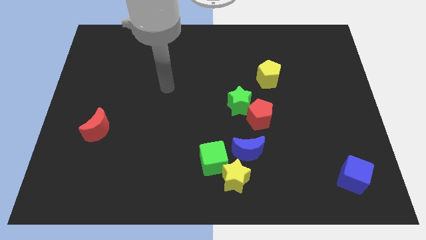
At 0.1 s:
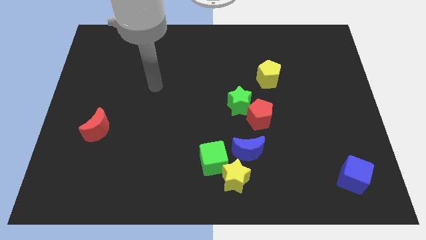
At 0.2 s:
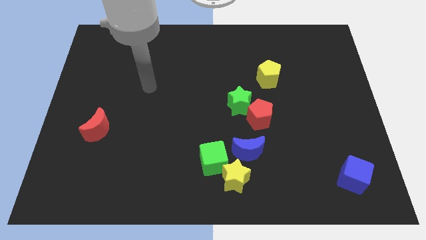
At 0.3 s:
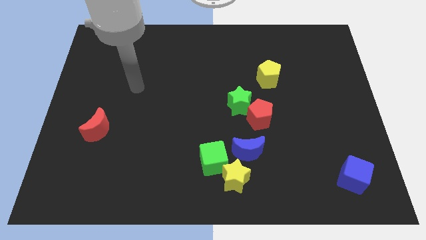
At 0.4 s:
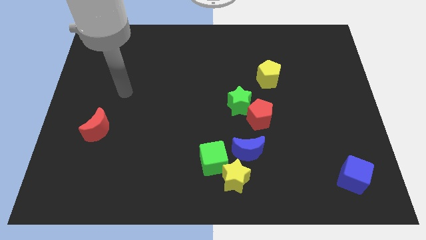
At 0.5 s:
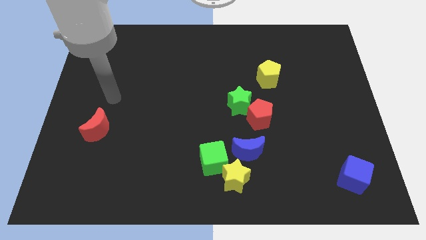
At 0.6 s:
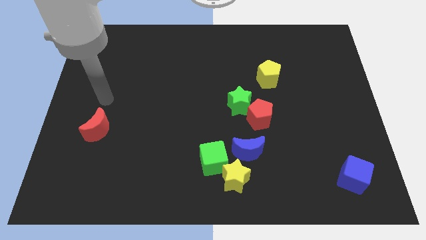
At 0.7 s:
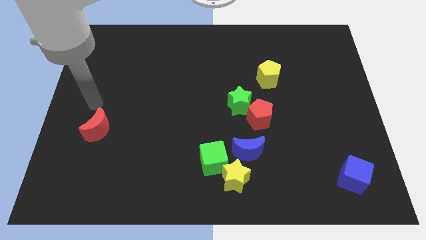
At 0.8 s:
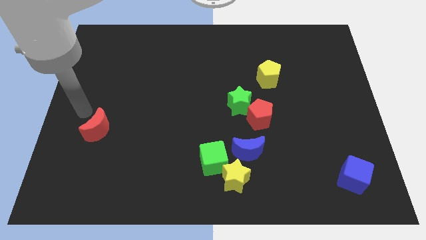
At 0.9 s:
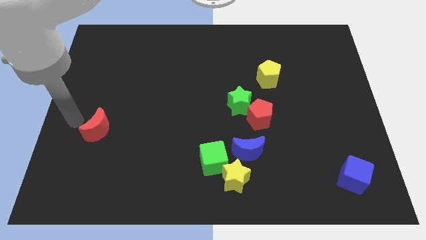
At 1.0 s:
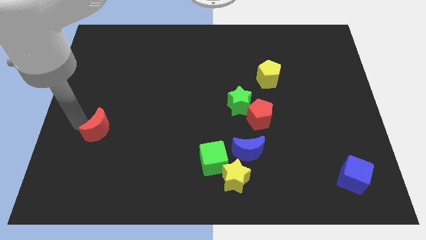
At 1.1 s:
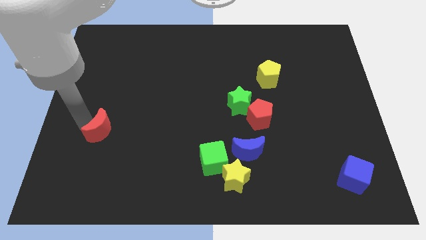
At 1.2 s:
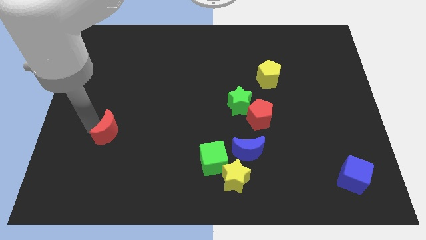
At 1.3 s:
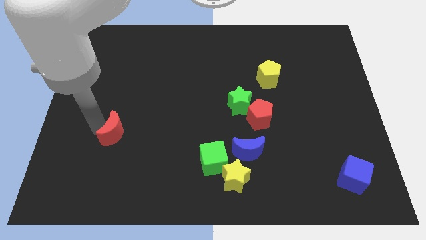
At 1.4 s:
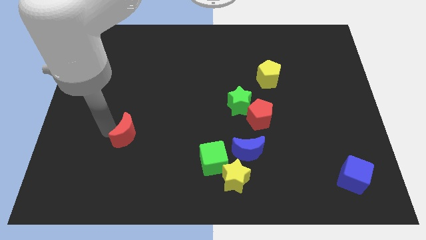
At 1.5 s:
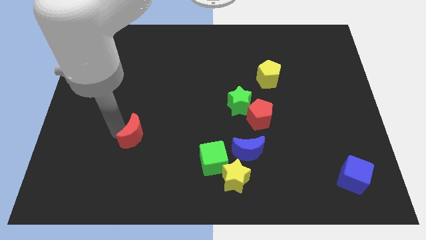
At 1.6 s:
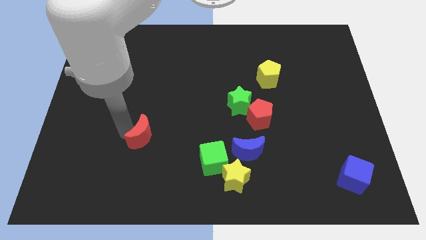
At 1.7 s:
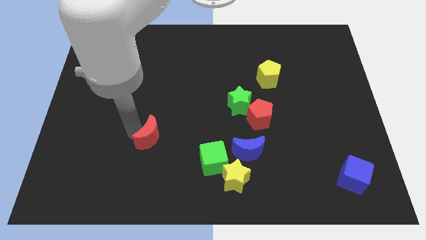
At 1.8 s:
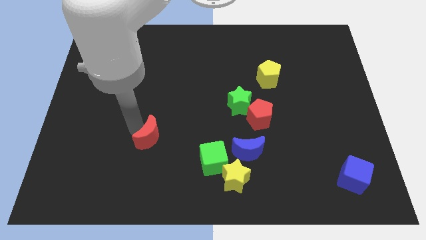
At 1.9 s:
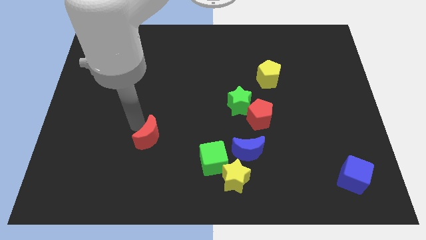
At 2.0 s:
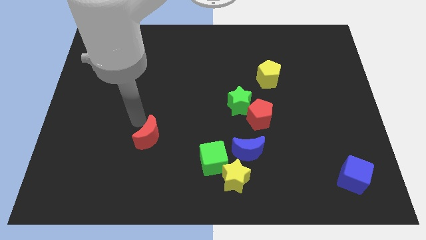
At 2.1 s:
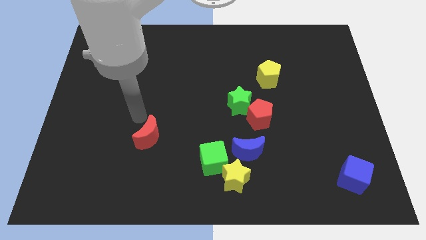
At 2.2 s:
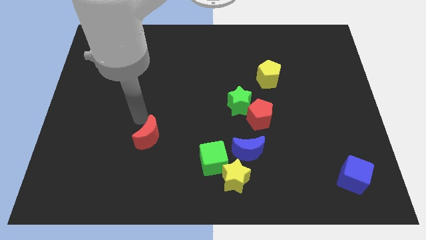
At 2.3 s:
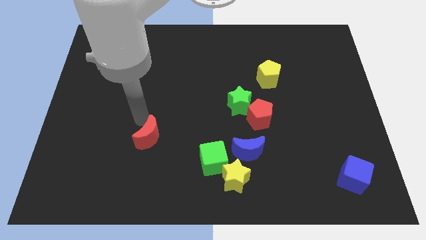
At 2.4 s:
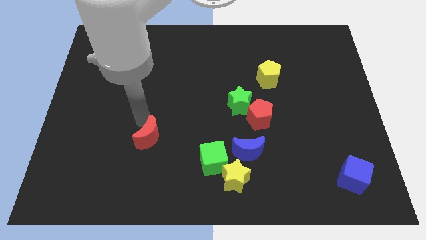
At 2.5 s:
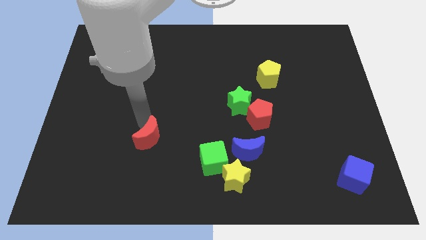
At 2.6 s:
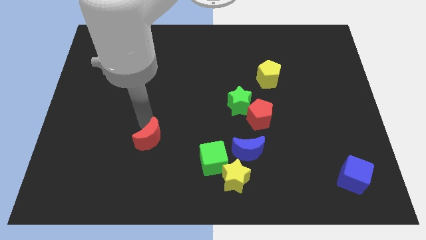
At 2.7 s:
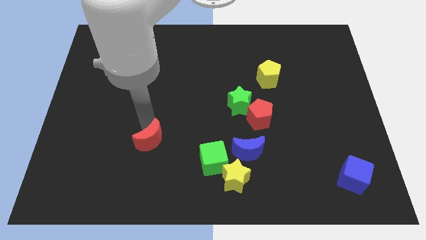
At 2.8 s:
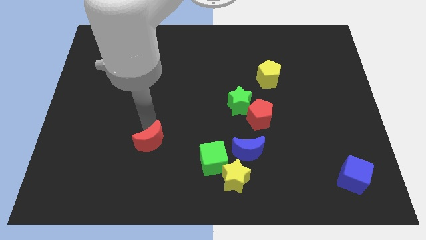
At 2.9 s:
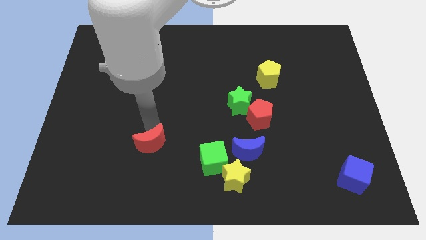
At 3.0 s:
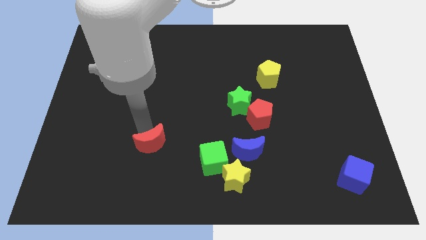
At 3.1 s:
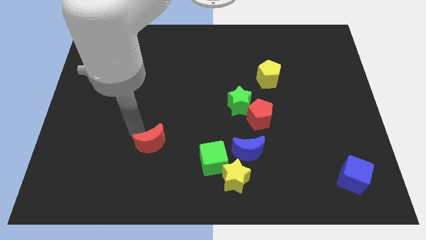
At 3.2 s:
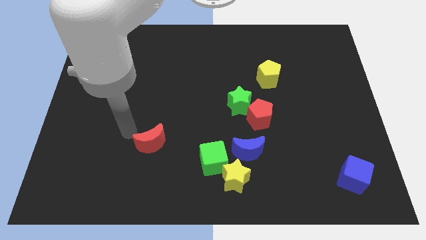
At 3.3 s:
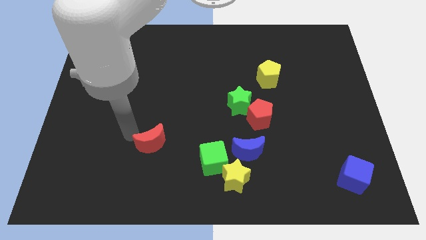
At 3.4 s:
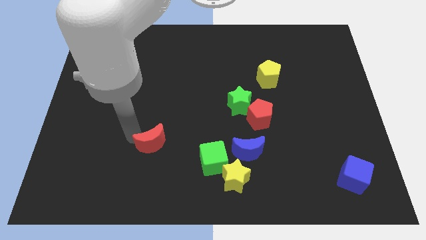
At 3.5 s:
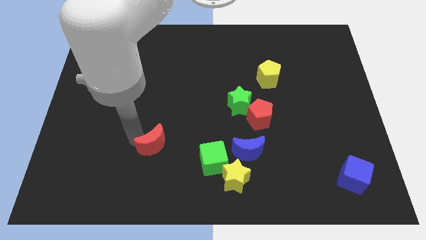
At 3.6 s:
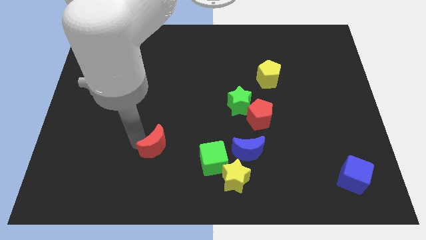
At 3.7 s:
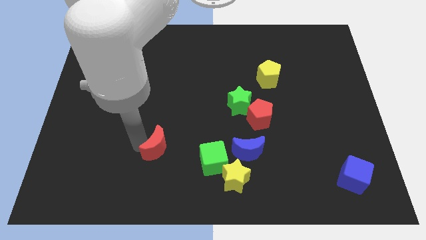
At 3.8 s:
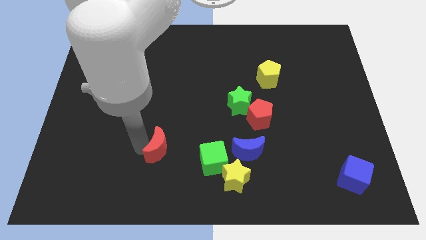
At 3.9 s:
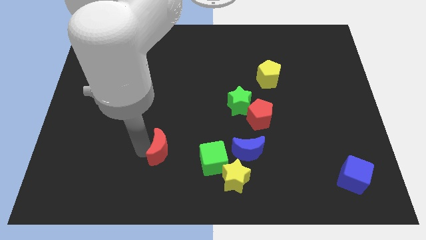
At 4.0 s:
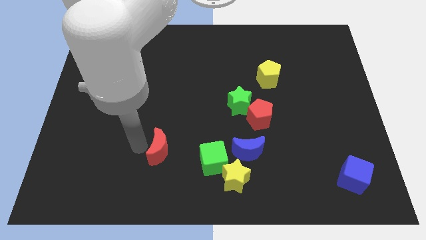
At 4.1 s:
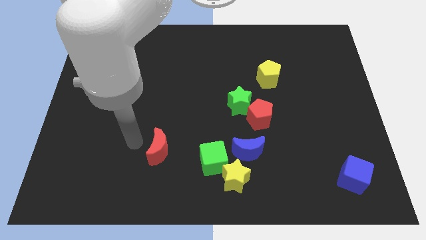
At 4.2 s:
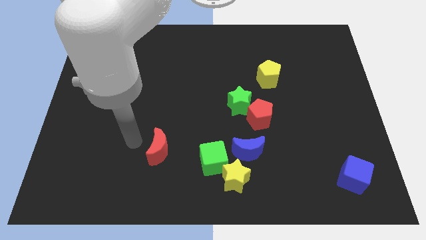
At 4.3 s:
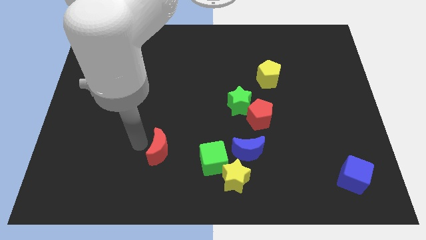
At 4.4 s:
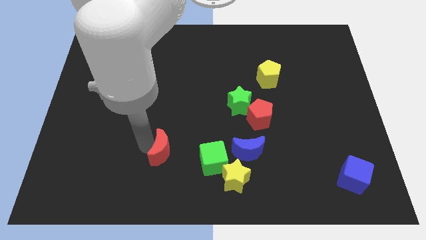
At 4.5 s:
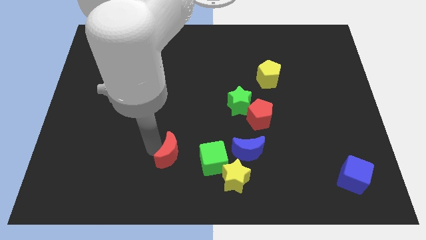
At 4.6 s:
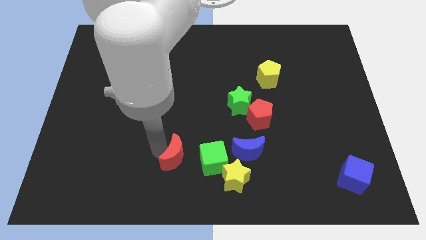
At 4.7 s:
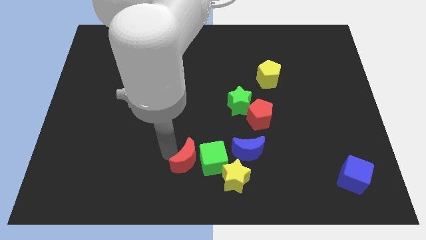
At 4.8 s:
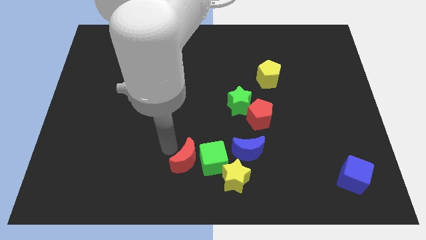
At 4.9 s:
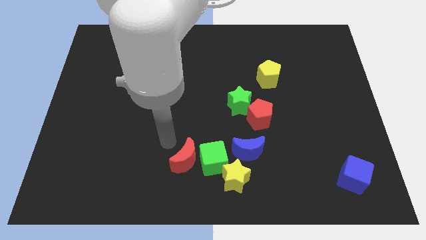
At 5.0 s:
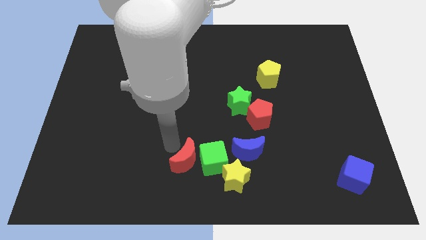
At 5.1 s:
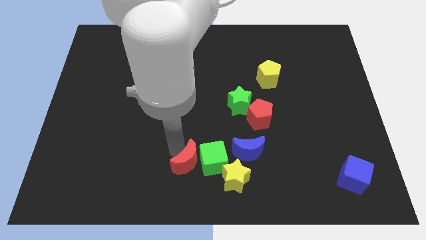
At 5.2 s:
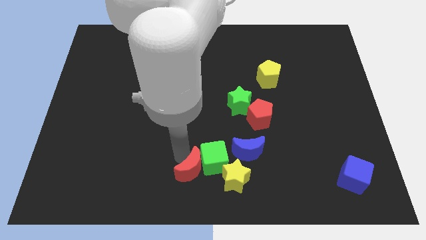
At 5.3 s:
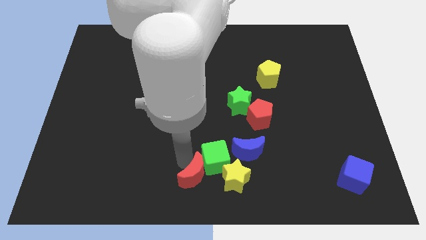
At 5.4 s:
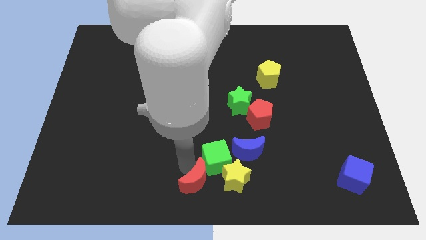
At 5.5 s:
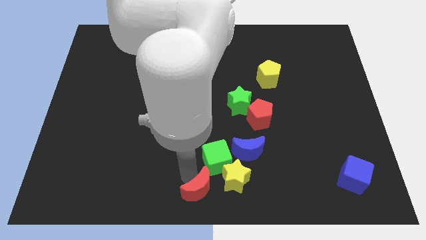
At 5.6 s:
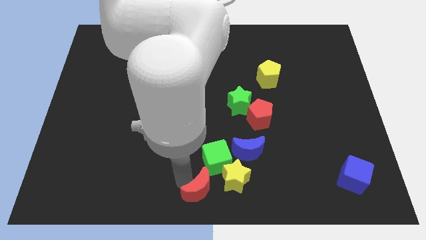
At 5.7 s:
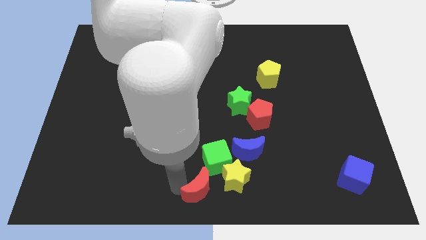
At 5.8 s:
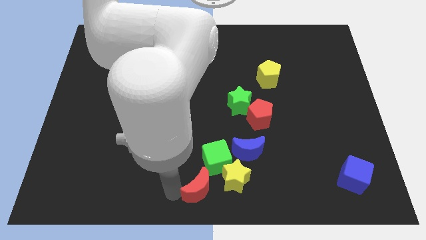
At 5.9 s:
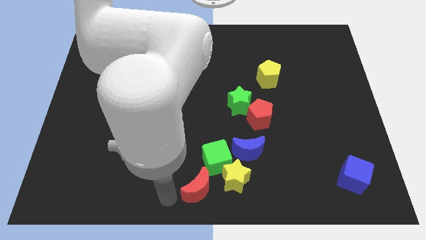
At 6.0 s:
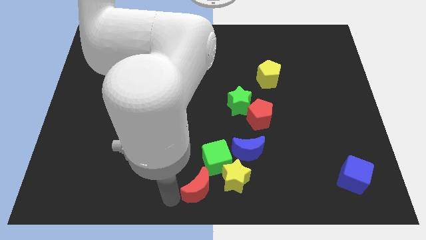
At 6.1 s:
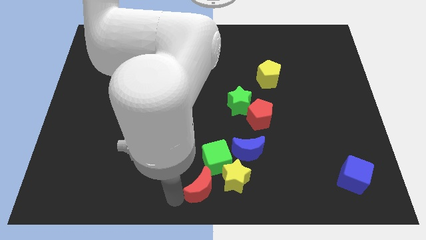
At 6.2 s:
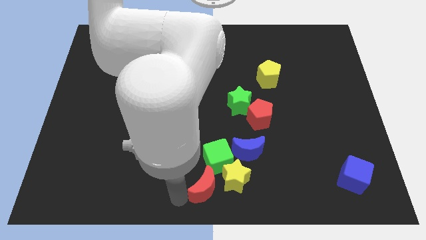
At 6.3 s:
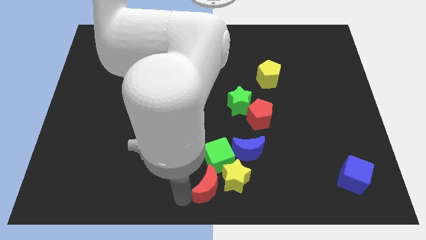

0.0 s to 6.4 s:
push the red moon towards the yellow star

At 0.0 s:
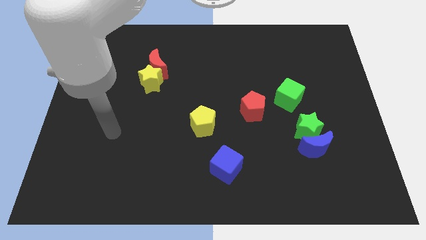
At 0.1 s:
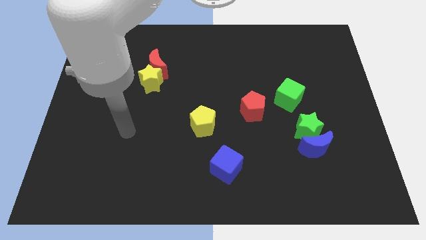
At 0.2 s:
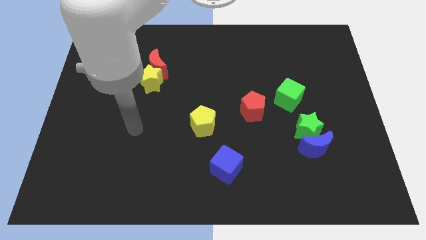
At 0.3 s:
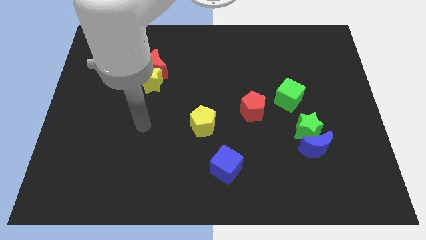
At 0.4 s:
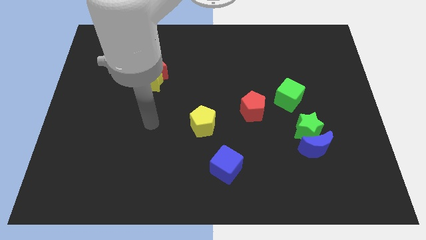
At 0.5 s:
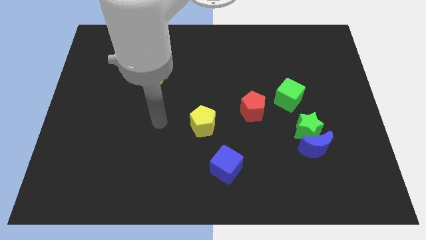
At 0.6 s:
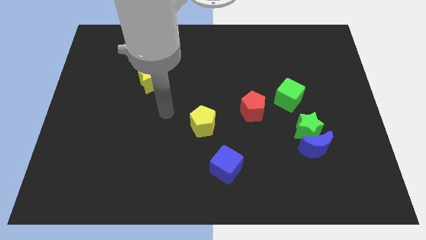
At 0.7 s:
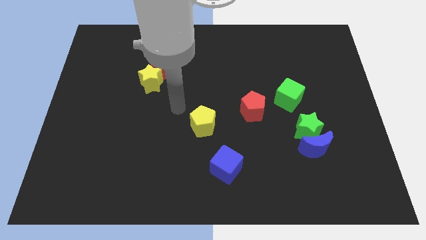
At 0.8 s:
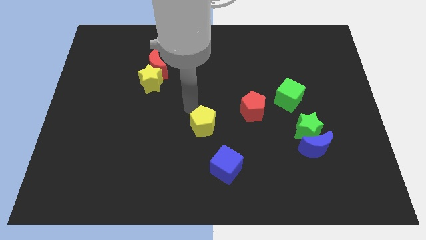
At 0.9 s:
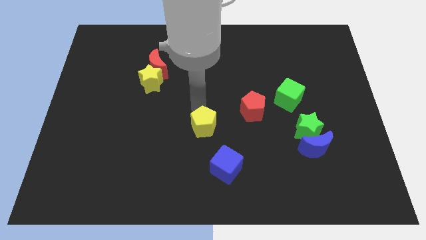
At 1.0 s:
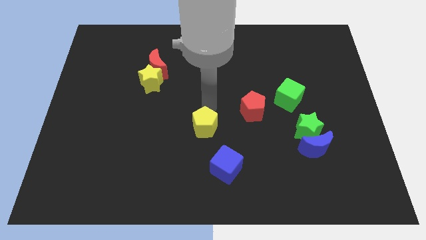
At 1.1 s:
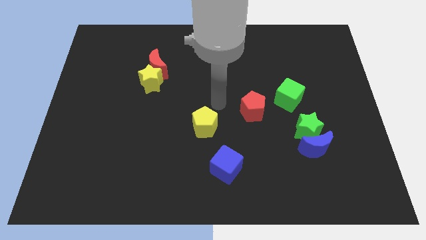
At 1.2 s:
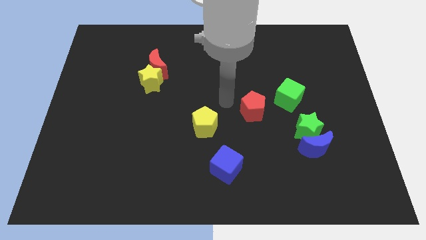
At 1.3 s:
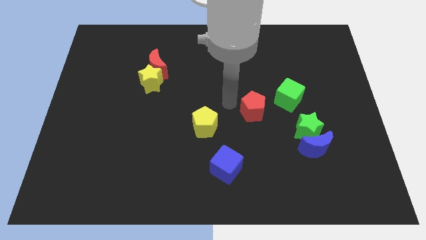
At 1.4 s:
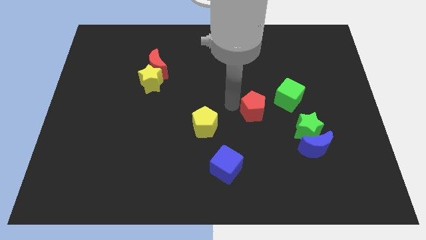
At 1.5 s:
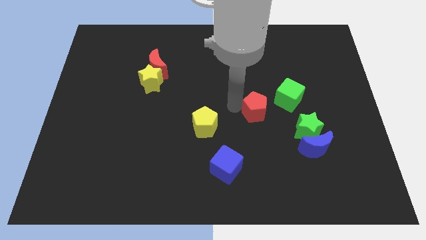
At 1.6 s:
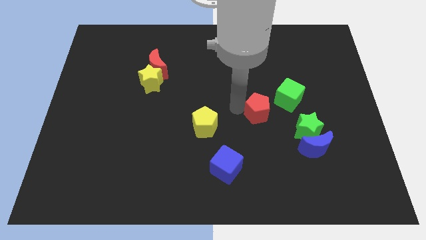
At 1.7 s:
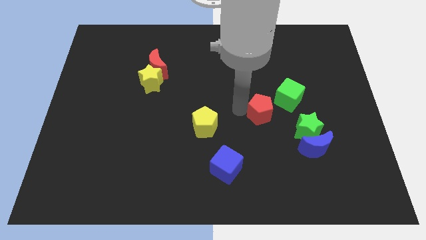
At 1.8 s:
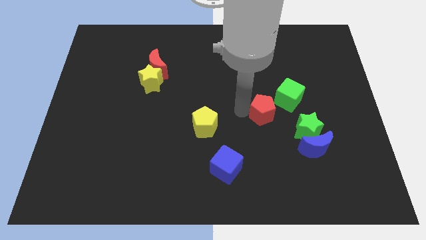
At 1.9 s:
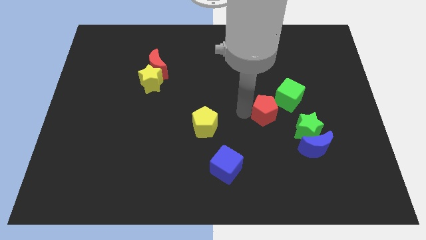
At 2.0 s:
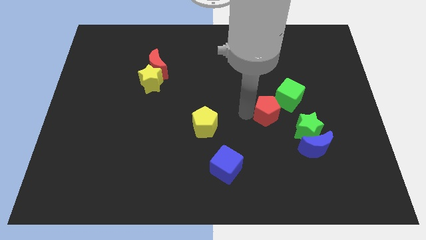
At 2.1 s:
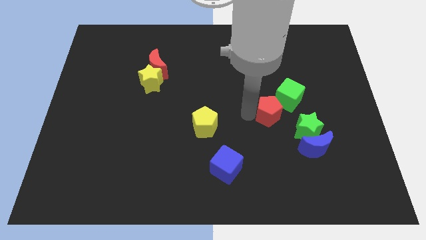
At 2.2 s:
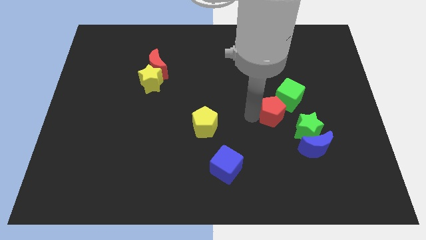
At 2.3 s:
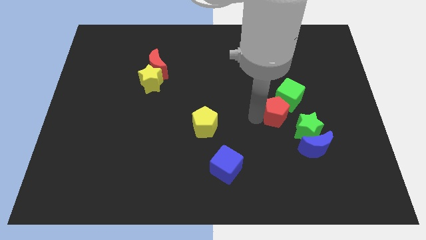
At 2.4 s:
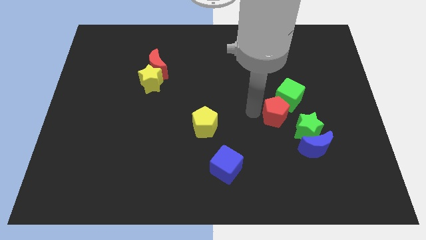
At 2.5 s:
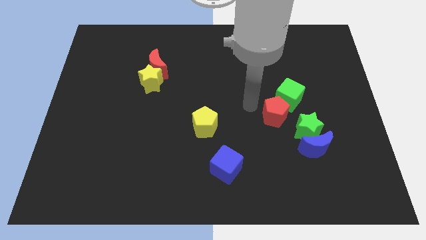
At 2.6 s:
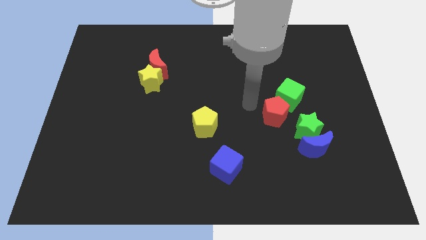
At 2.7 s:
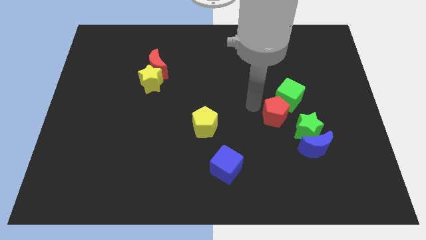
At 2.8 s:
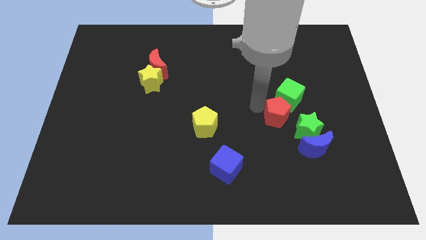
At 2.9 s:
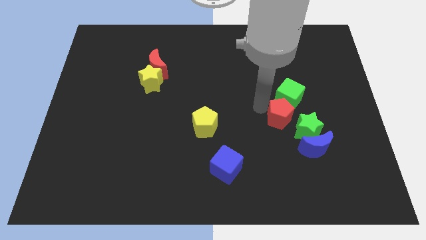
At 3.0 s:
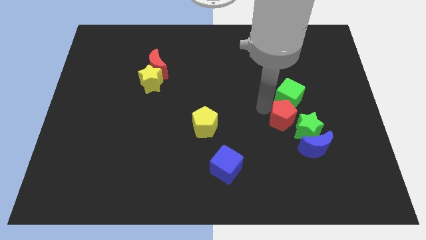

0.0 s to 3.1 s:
put the red pentagon towards the green star
